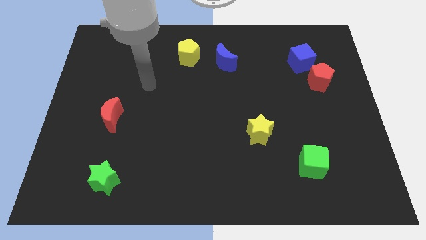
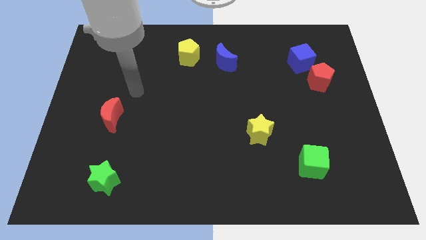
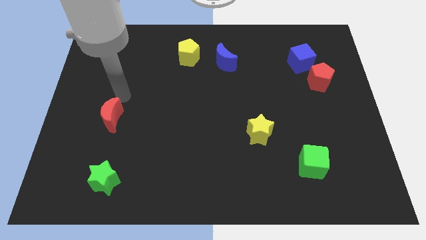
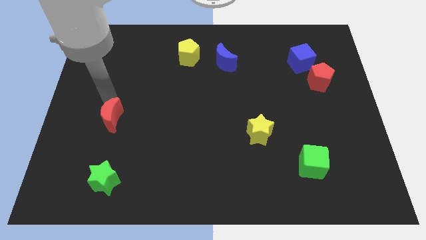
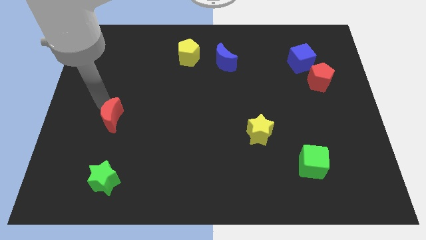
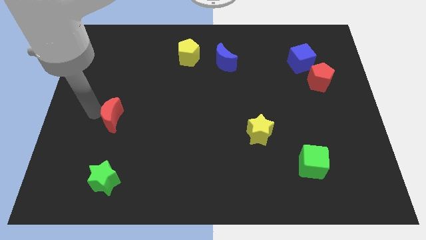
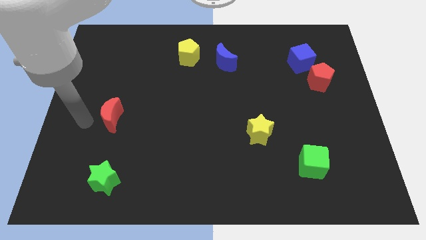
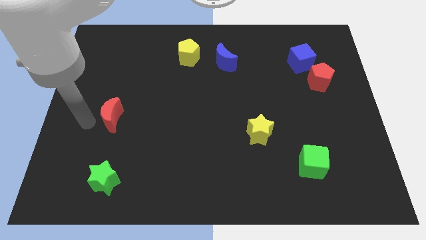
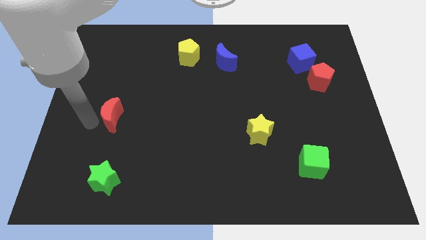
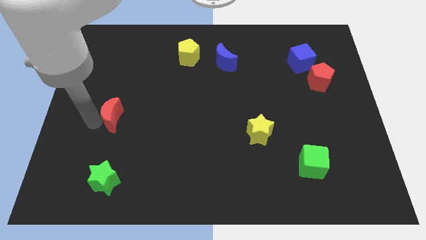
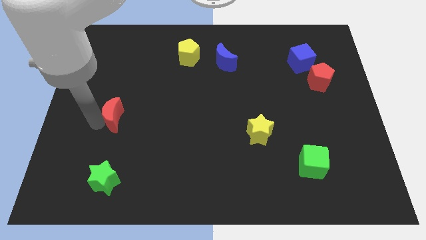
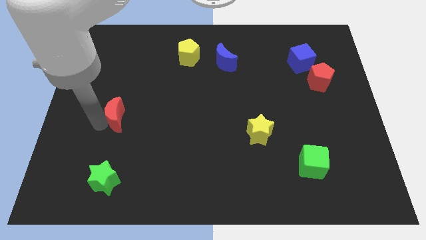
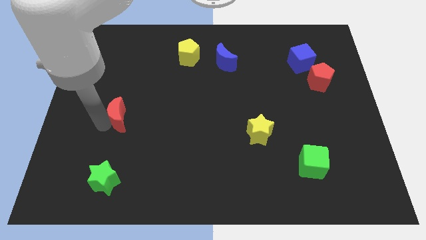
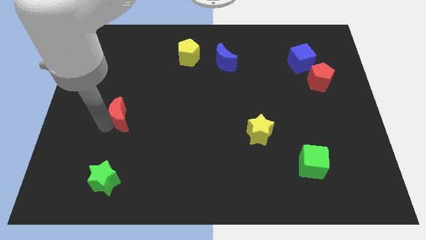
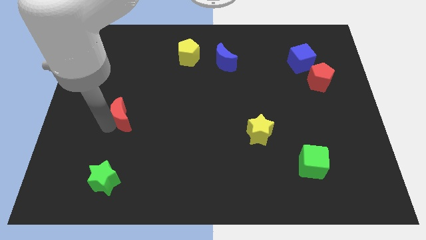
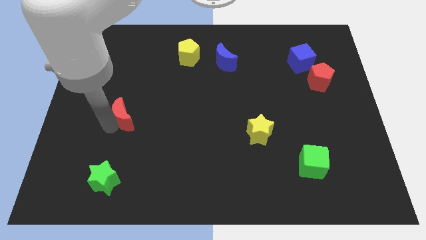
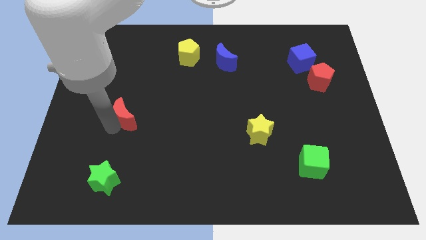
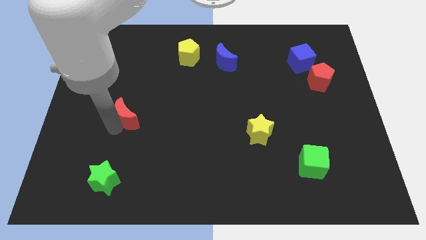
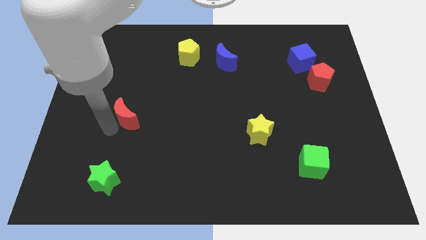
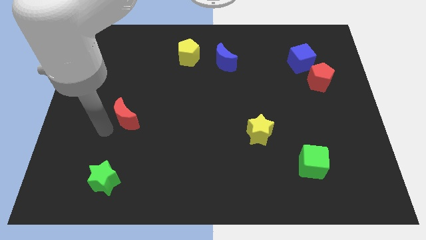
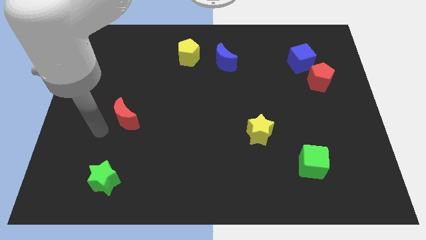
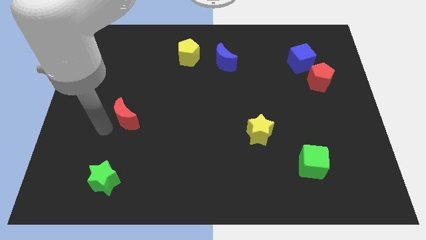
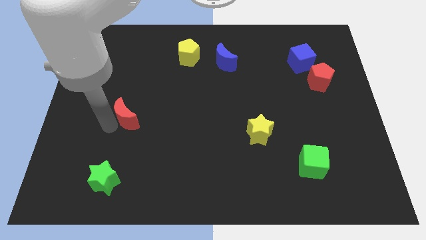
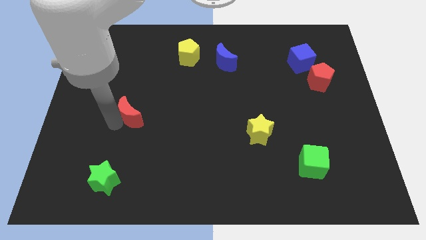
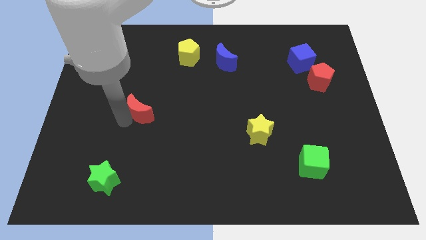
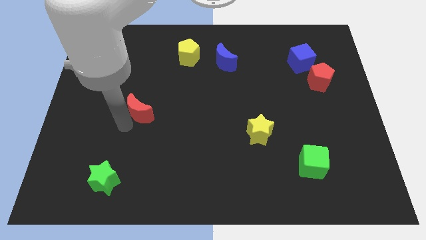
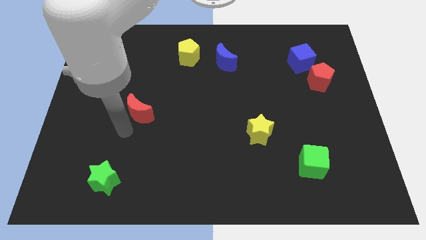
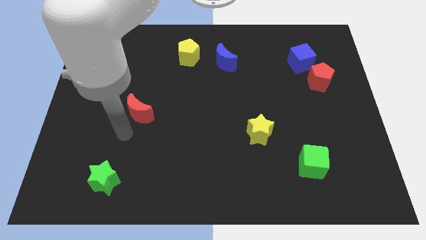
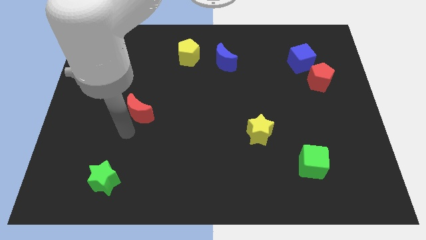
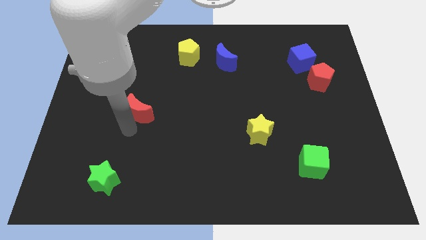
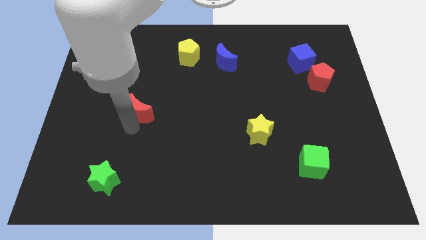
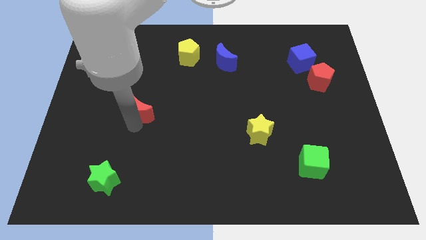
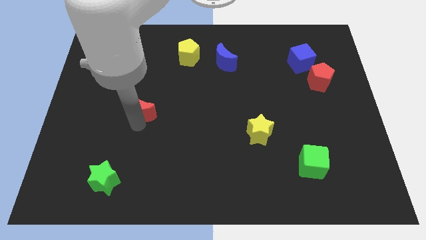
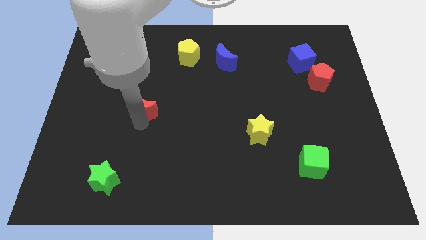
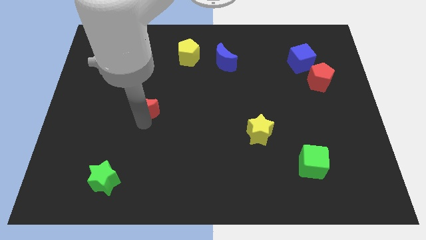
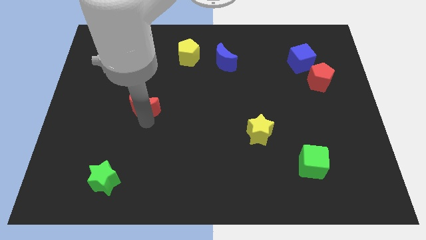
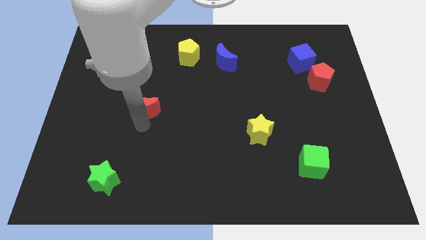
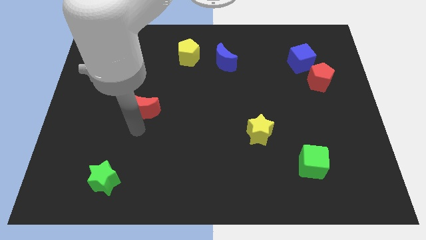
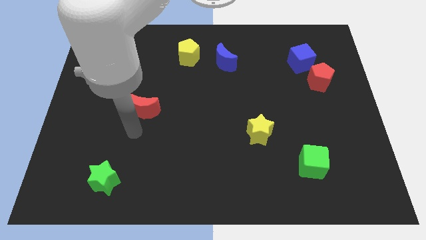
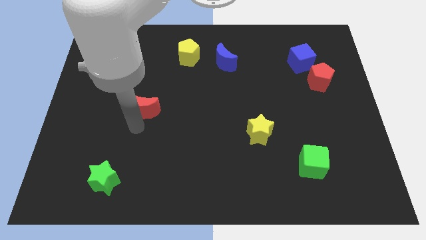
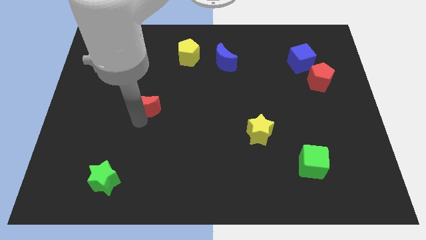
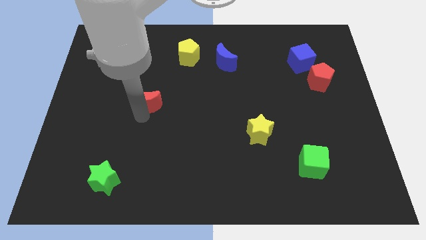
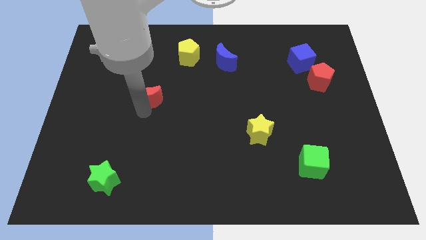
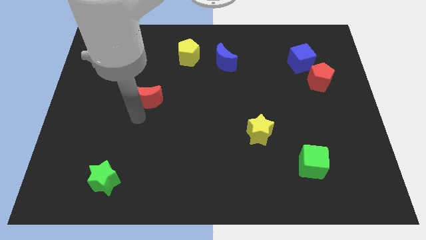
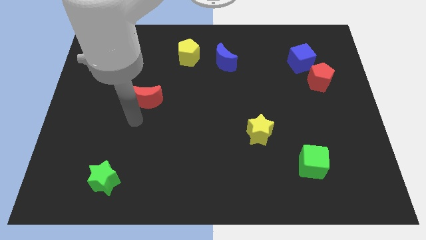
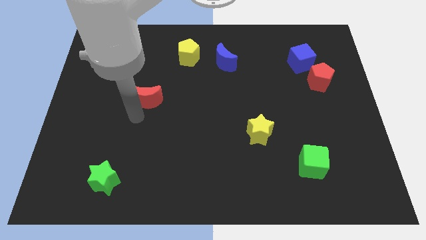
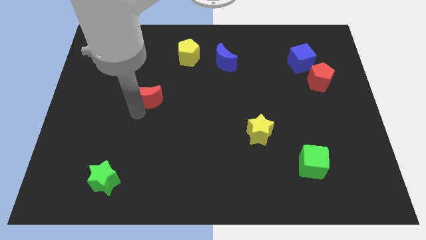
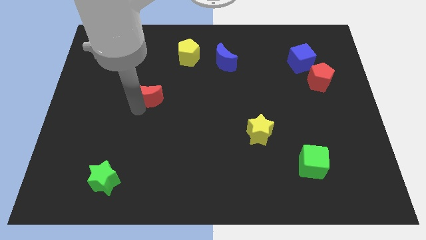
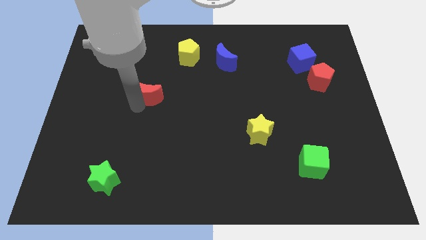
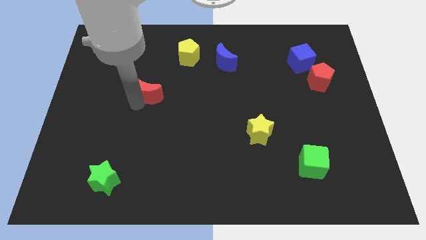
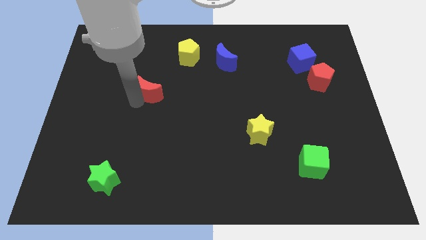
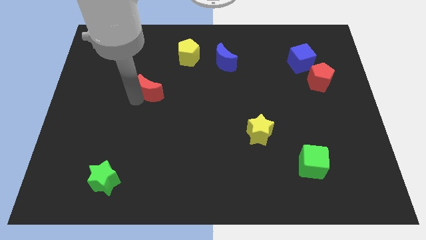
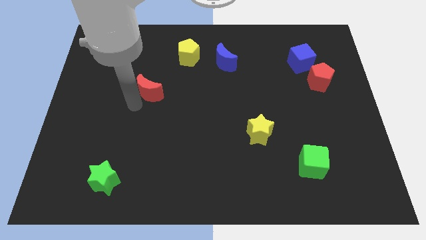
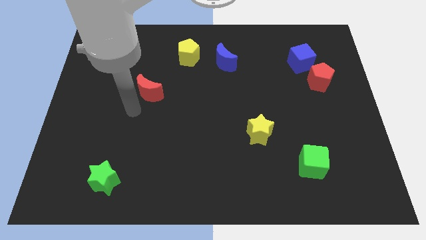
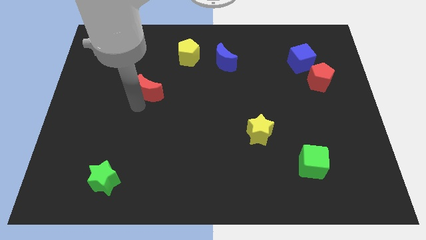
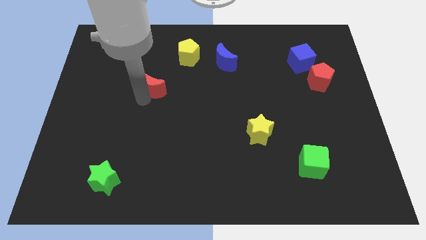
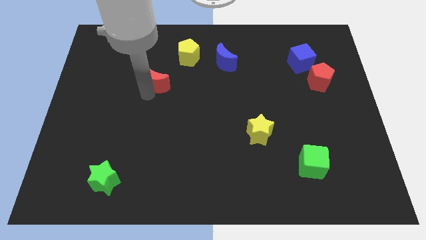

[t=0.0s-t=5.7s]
put the red moon to the bottom left of the yellow pentagon
